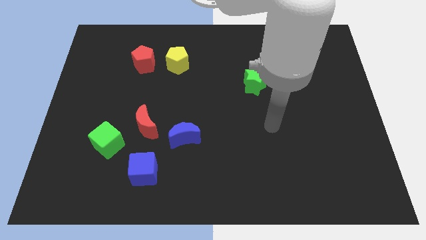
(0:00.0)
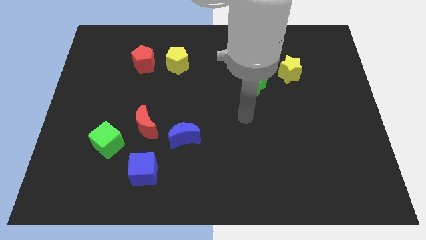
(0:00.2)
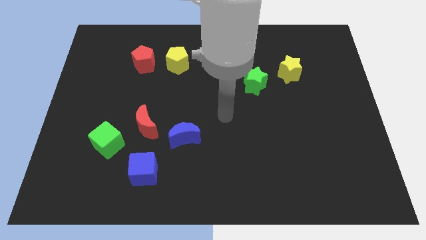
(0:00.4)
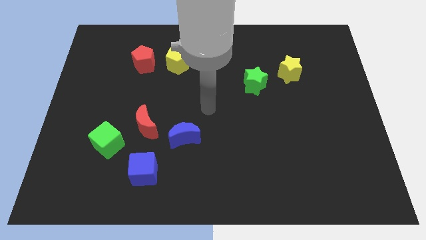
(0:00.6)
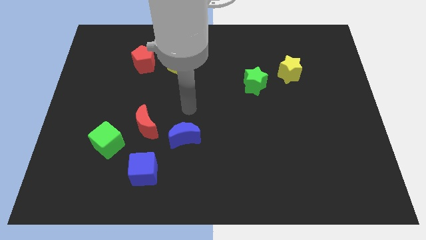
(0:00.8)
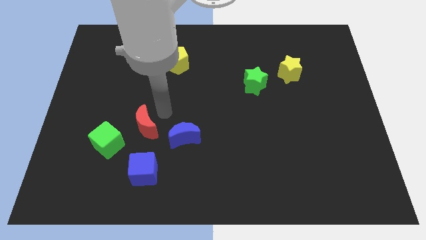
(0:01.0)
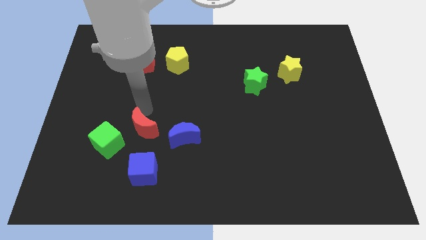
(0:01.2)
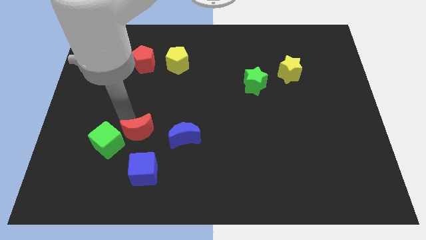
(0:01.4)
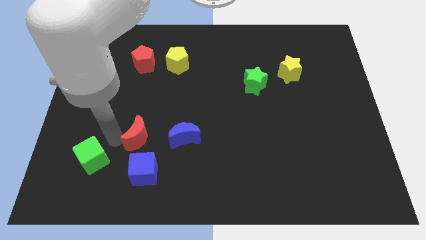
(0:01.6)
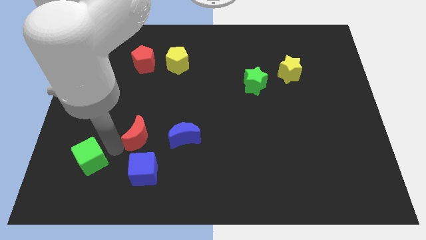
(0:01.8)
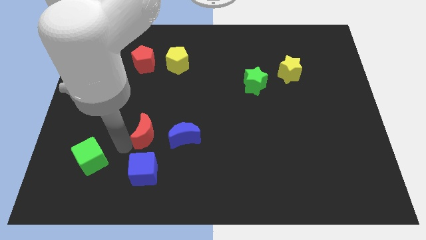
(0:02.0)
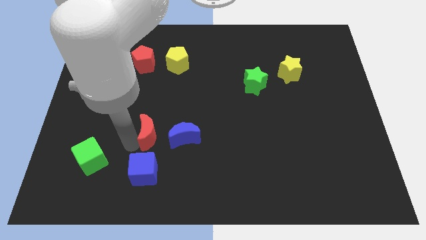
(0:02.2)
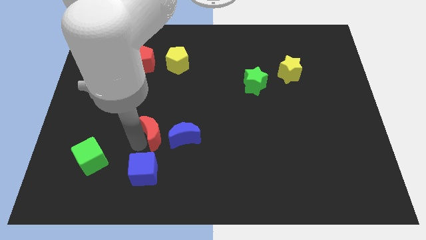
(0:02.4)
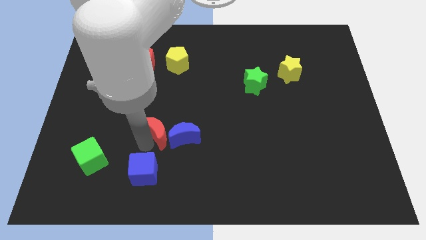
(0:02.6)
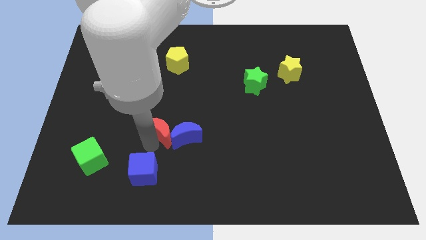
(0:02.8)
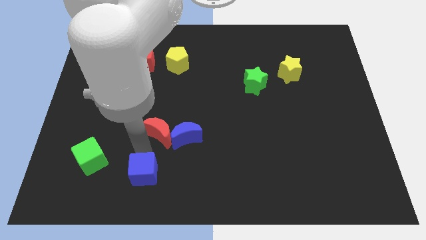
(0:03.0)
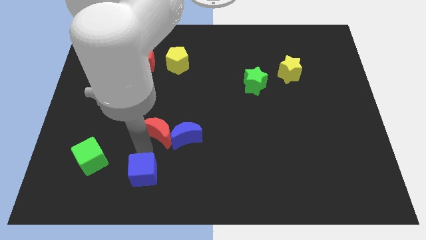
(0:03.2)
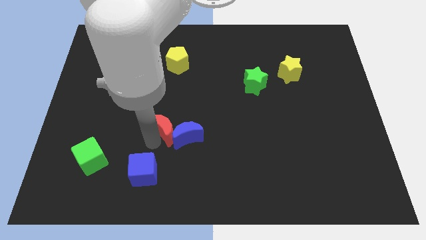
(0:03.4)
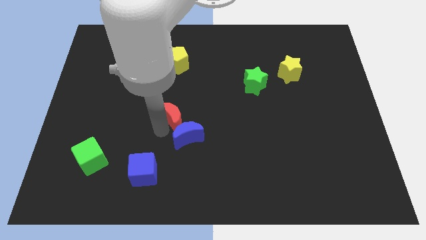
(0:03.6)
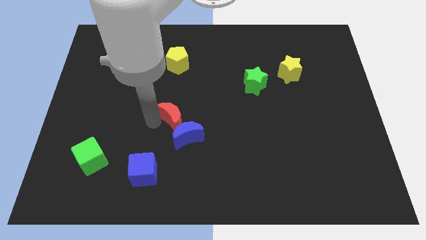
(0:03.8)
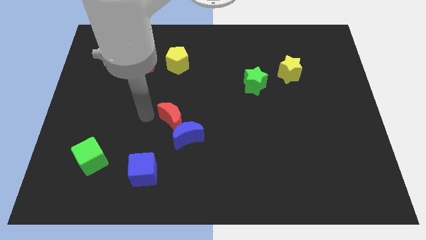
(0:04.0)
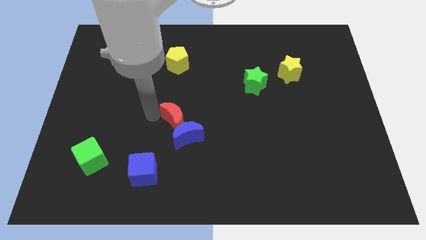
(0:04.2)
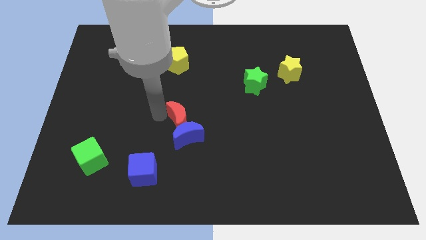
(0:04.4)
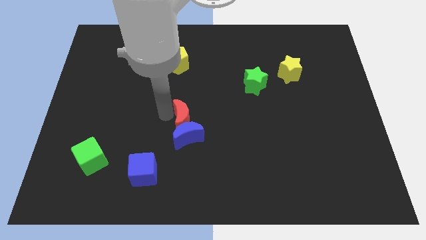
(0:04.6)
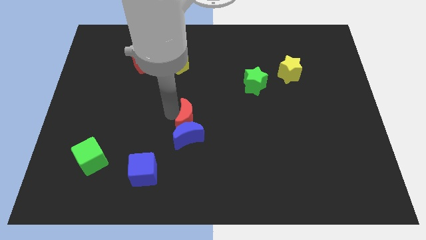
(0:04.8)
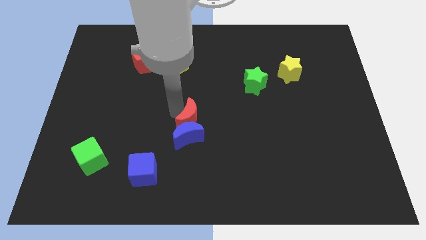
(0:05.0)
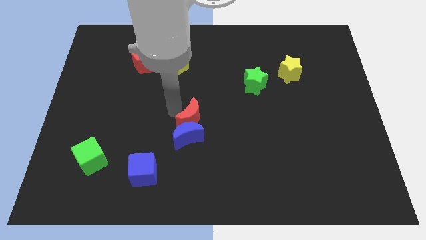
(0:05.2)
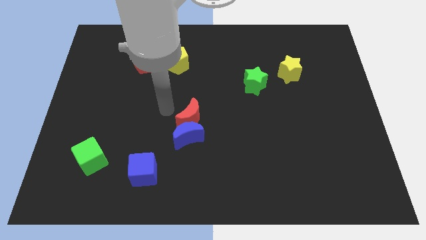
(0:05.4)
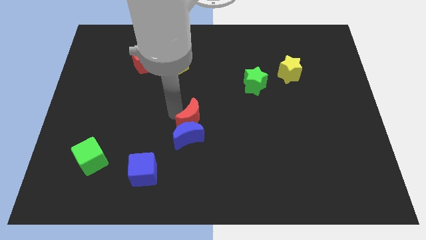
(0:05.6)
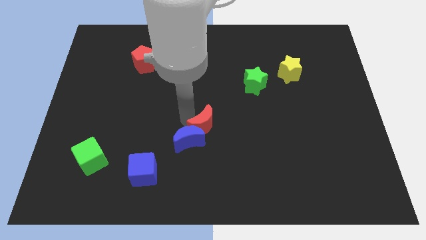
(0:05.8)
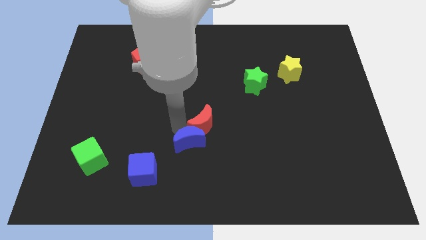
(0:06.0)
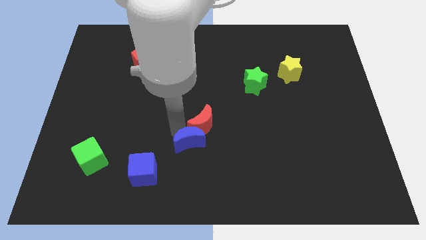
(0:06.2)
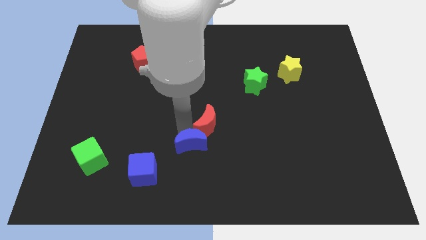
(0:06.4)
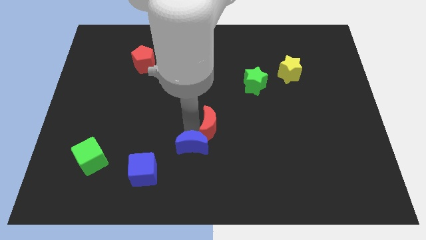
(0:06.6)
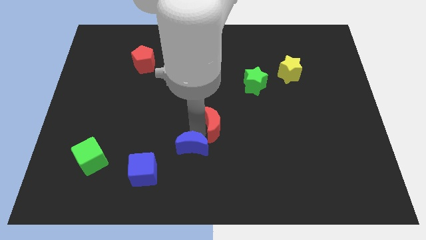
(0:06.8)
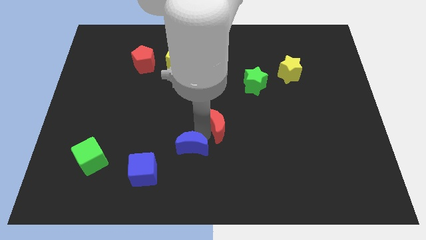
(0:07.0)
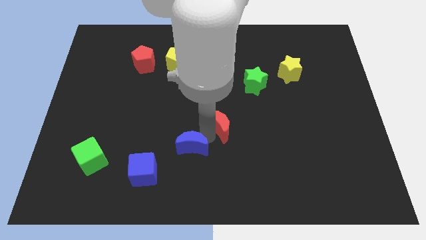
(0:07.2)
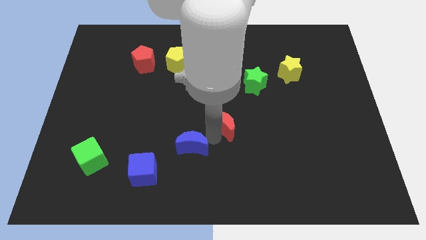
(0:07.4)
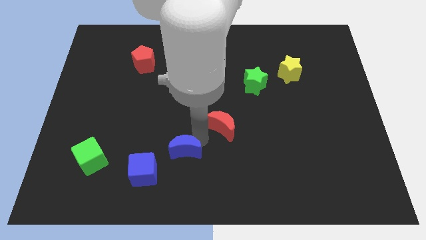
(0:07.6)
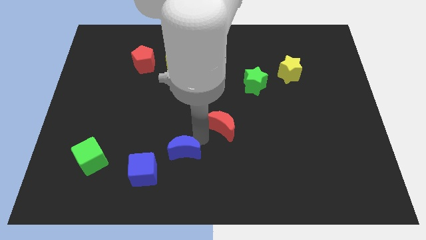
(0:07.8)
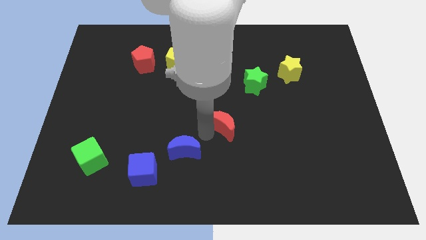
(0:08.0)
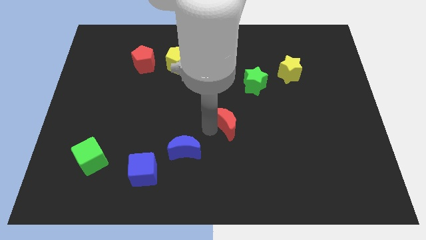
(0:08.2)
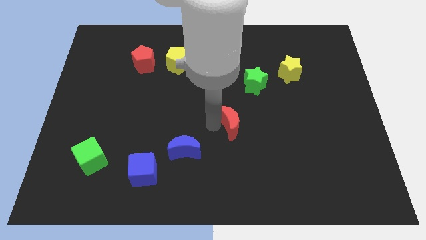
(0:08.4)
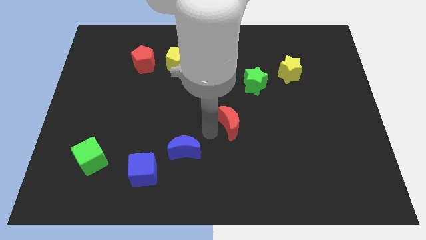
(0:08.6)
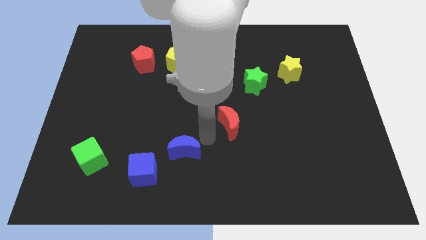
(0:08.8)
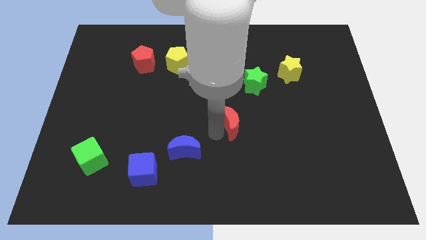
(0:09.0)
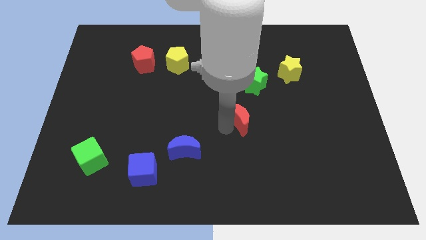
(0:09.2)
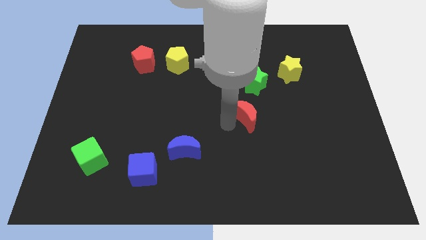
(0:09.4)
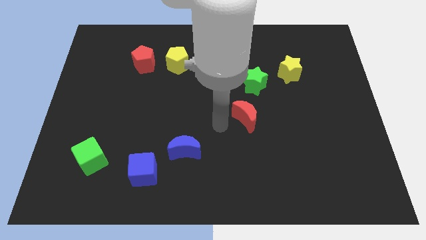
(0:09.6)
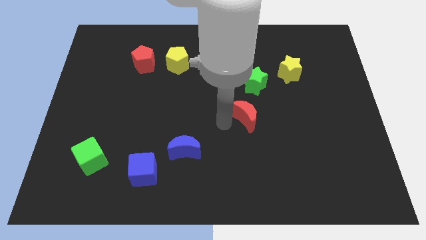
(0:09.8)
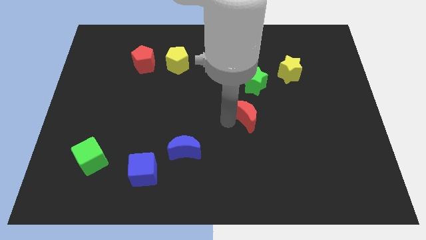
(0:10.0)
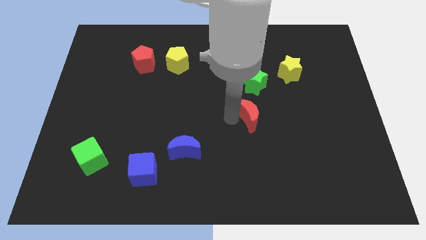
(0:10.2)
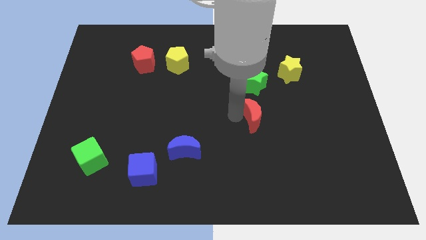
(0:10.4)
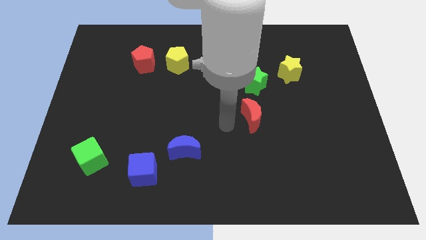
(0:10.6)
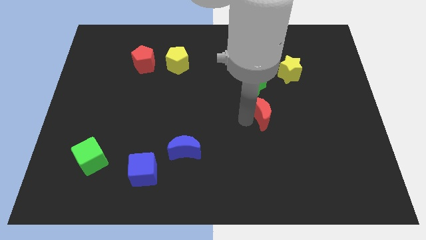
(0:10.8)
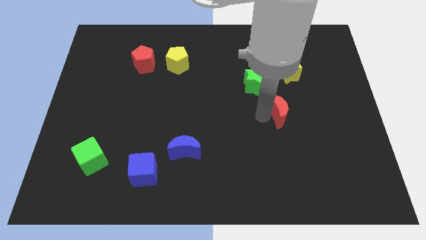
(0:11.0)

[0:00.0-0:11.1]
slide the red moon below the yellow star

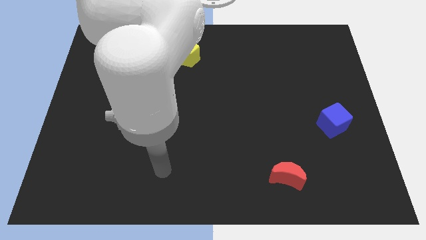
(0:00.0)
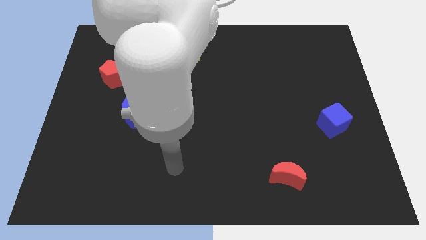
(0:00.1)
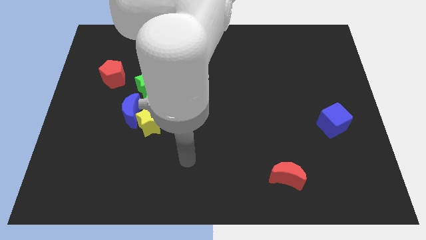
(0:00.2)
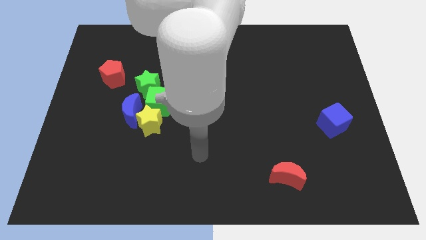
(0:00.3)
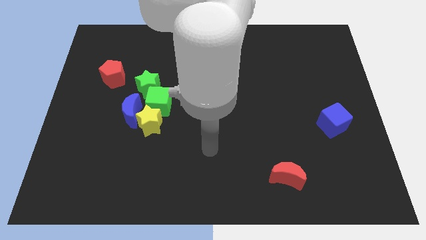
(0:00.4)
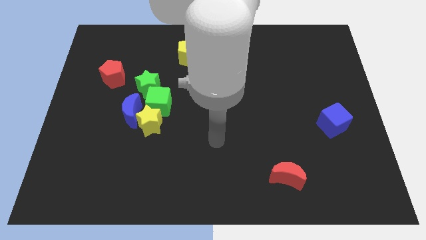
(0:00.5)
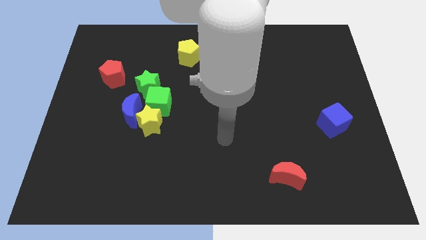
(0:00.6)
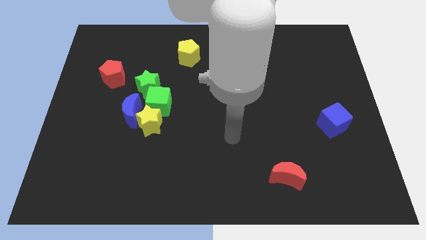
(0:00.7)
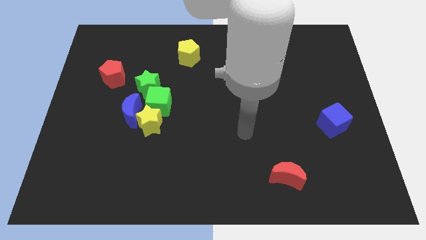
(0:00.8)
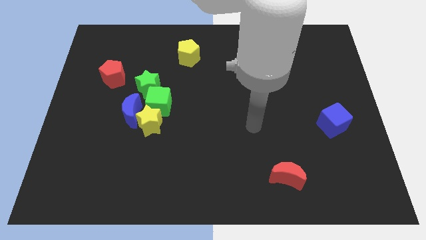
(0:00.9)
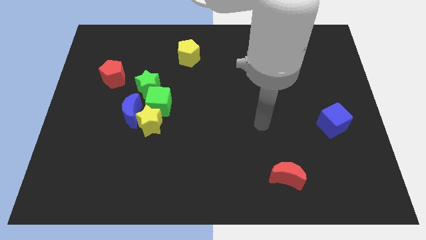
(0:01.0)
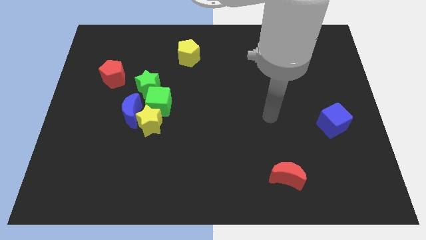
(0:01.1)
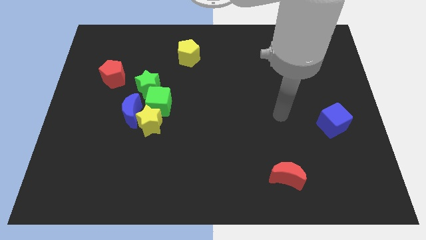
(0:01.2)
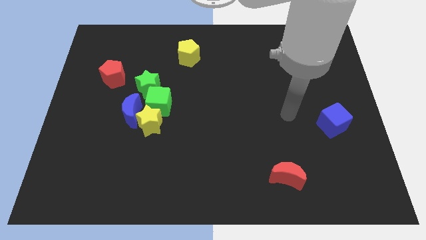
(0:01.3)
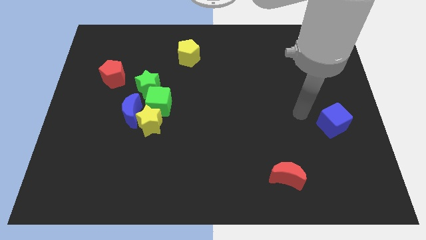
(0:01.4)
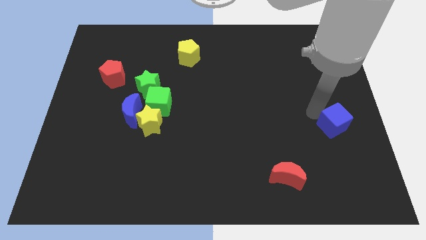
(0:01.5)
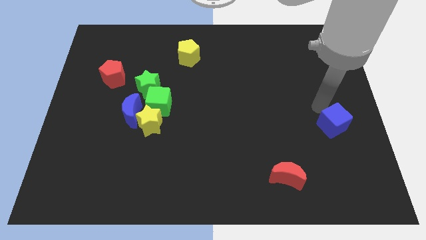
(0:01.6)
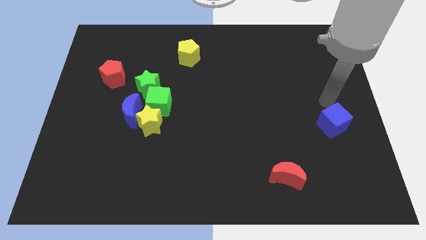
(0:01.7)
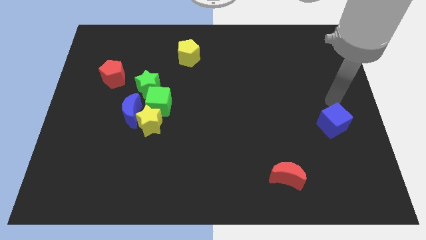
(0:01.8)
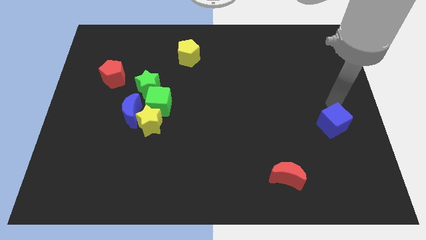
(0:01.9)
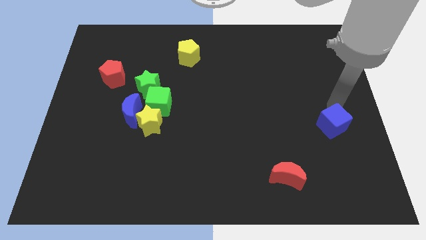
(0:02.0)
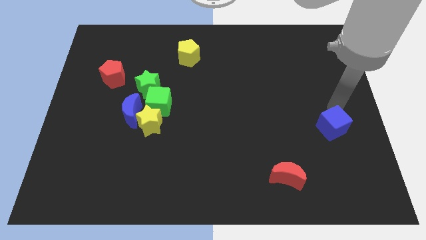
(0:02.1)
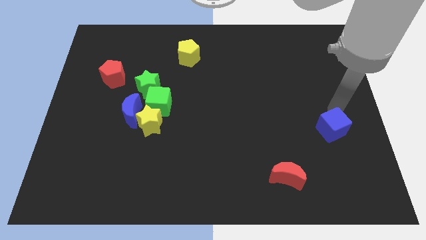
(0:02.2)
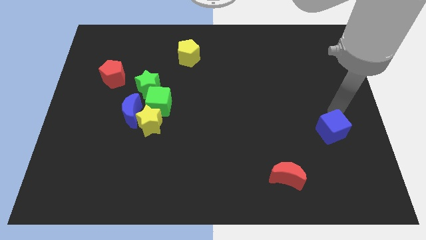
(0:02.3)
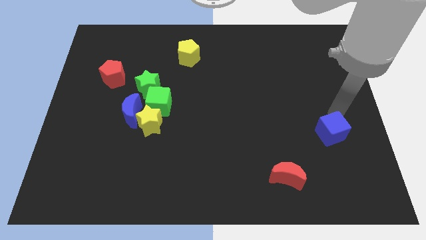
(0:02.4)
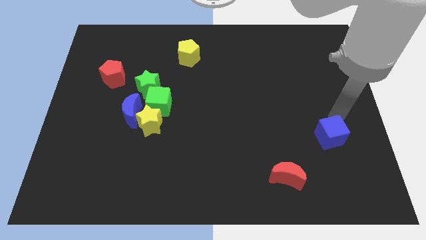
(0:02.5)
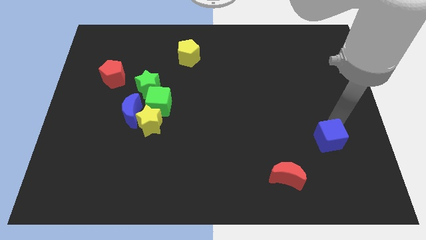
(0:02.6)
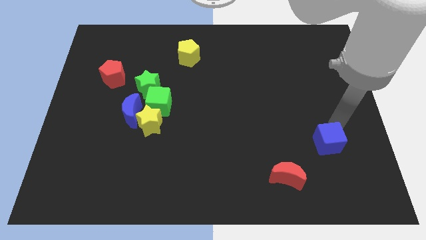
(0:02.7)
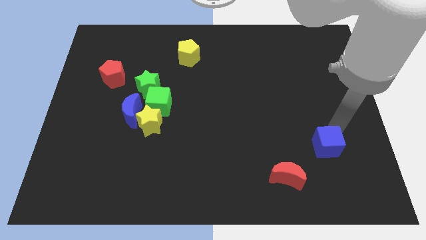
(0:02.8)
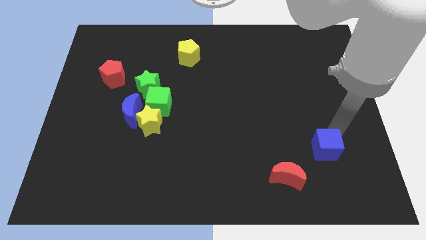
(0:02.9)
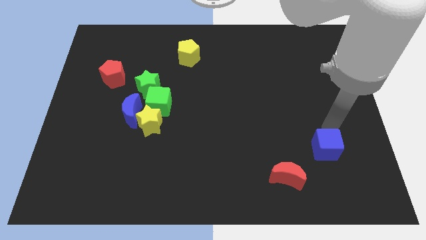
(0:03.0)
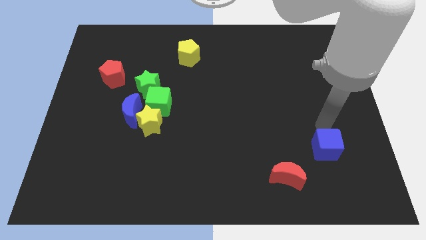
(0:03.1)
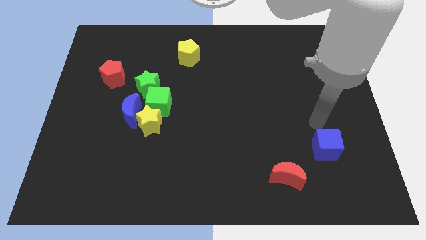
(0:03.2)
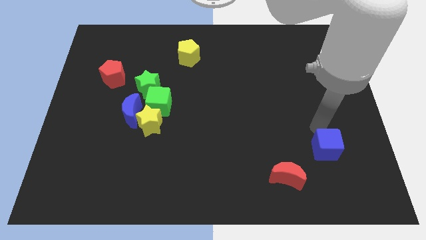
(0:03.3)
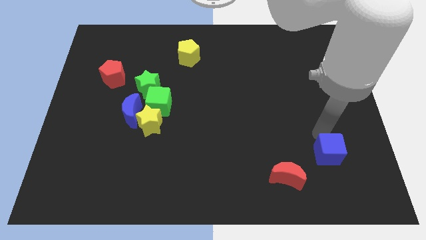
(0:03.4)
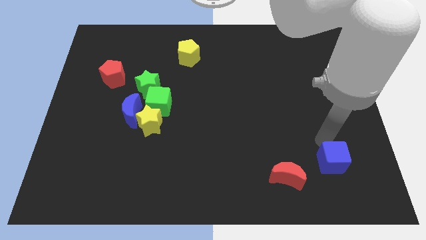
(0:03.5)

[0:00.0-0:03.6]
move the blue cube just right of the red moon
